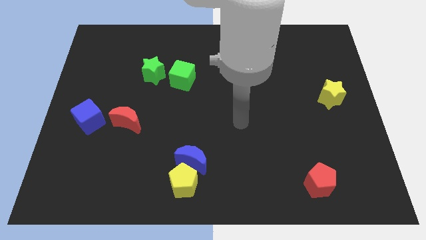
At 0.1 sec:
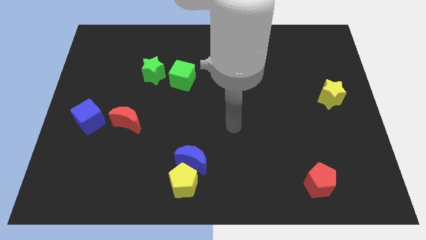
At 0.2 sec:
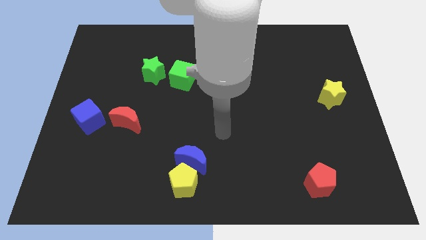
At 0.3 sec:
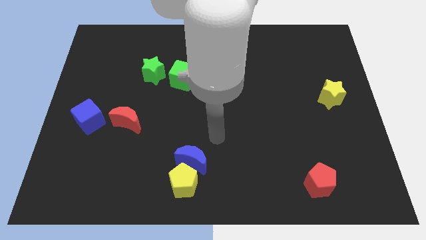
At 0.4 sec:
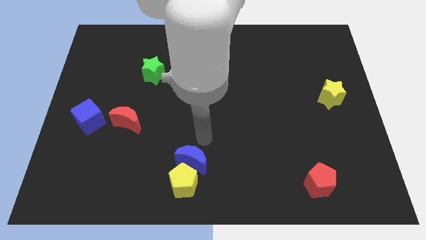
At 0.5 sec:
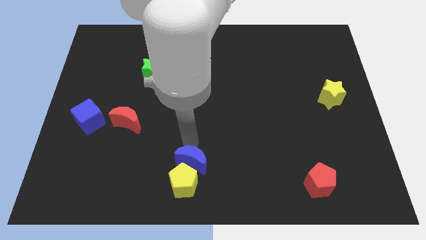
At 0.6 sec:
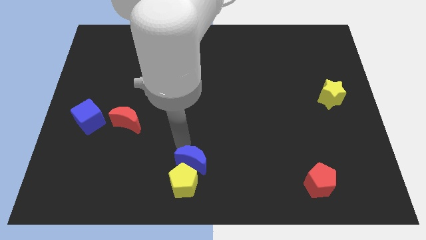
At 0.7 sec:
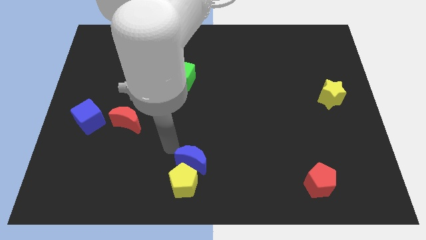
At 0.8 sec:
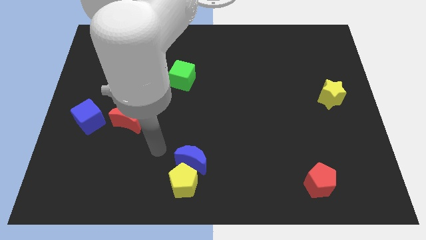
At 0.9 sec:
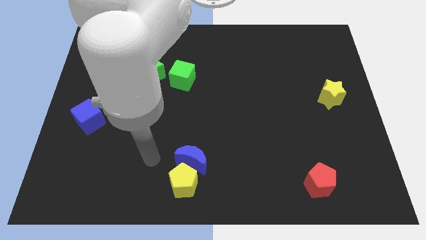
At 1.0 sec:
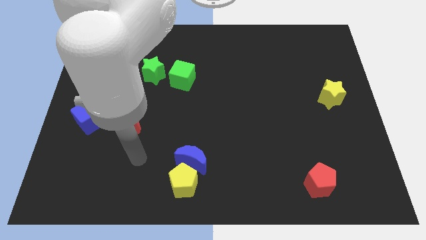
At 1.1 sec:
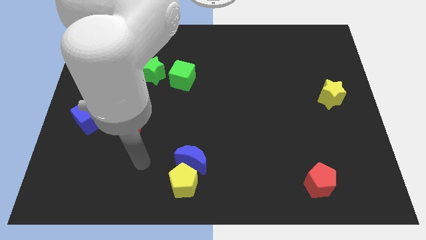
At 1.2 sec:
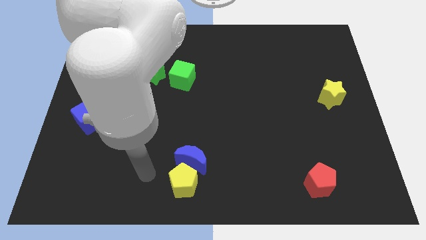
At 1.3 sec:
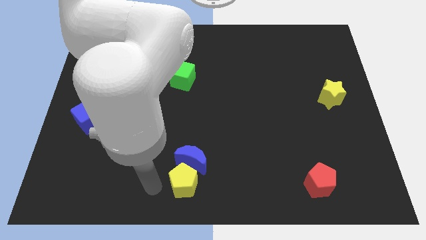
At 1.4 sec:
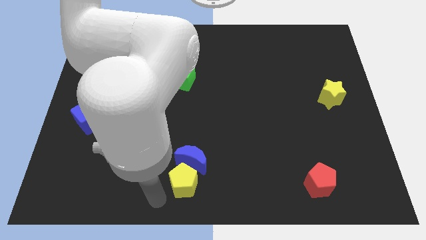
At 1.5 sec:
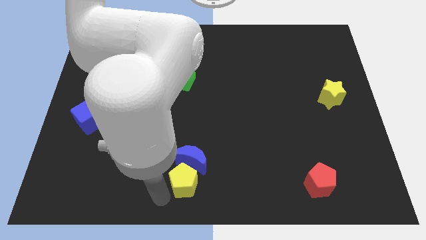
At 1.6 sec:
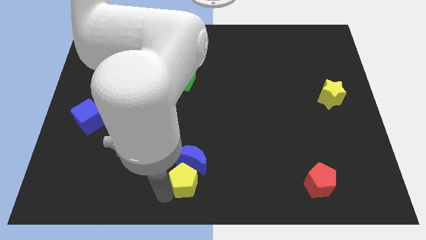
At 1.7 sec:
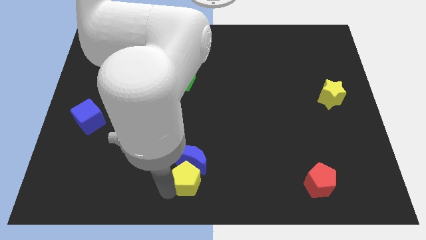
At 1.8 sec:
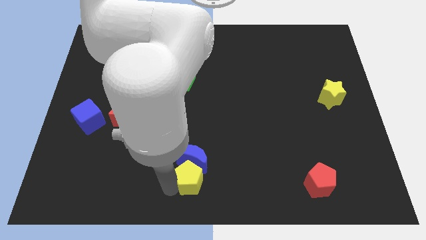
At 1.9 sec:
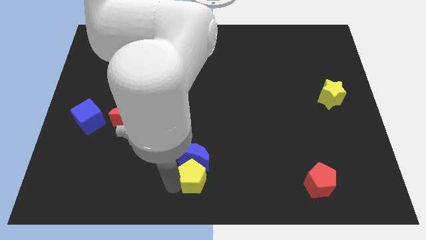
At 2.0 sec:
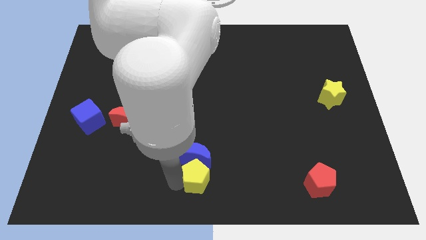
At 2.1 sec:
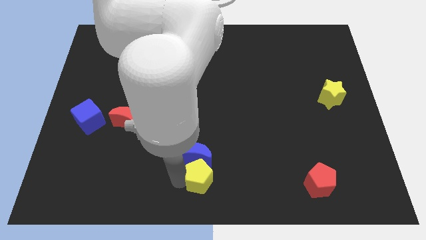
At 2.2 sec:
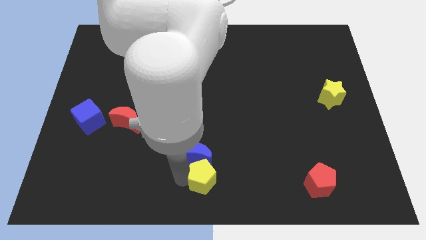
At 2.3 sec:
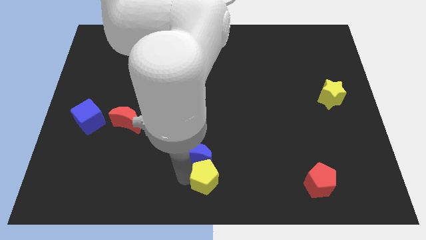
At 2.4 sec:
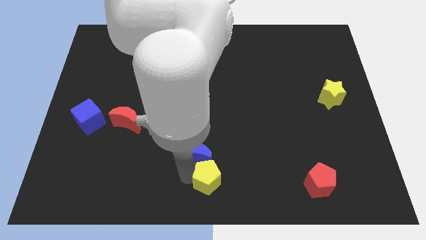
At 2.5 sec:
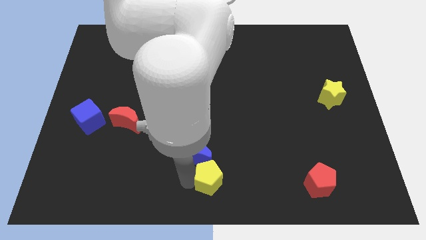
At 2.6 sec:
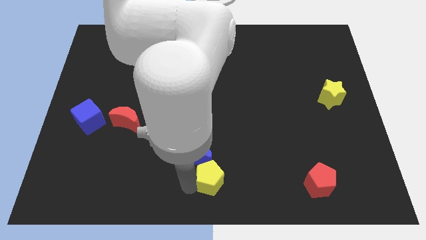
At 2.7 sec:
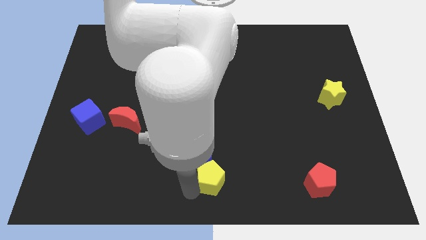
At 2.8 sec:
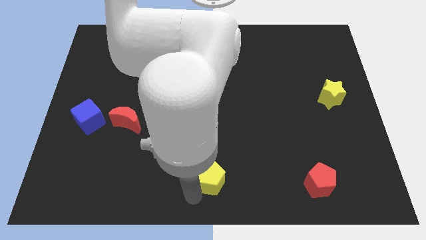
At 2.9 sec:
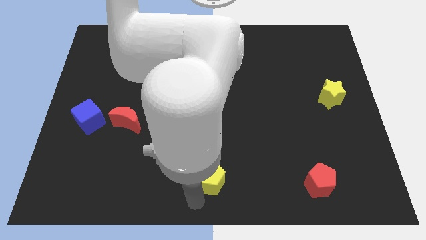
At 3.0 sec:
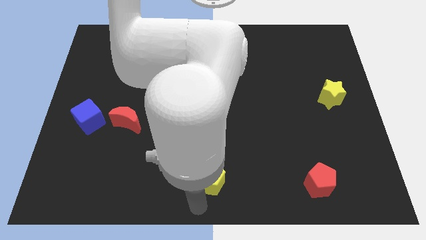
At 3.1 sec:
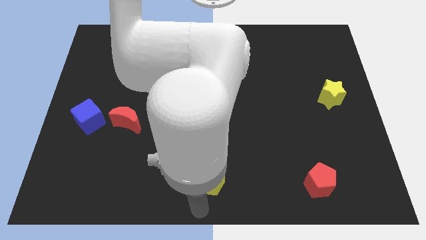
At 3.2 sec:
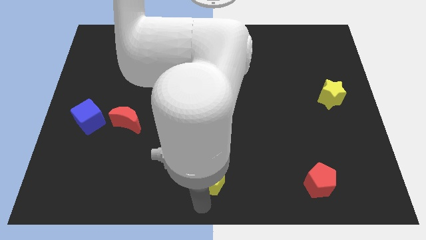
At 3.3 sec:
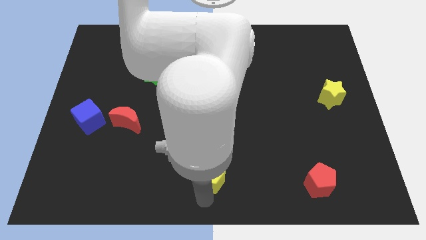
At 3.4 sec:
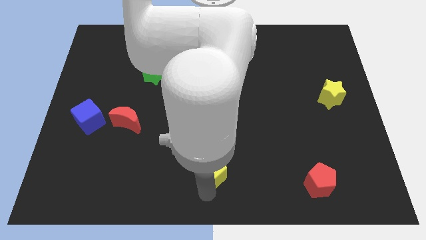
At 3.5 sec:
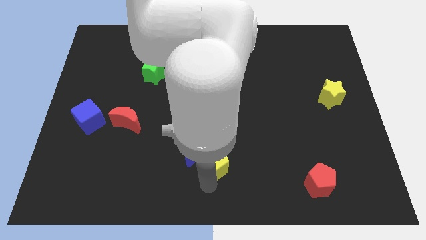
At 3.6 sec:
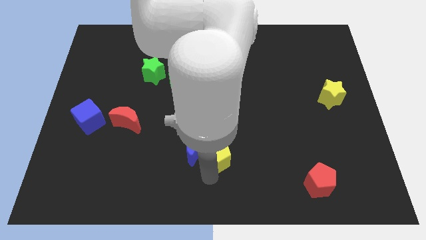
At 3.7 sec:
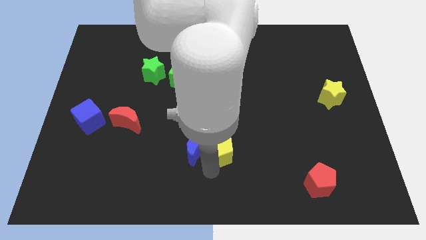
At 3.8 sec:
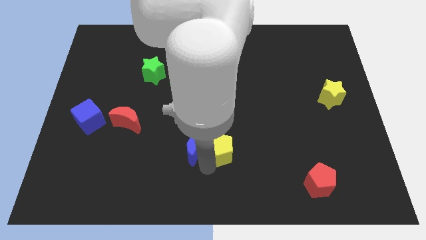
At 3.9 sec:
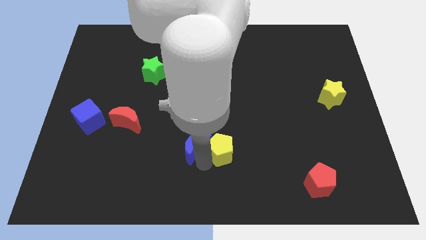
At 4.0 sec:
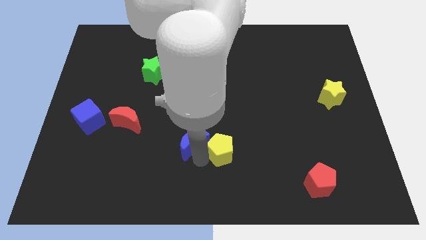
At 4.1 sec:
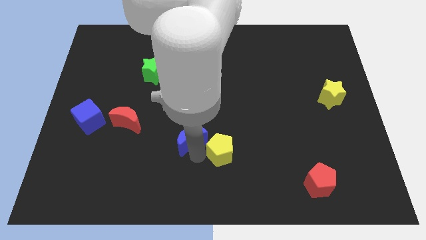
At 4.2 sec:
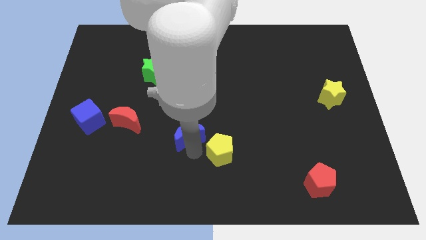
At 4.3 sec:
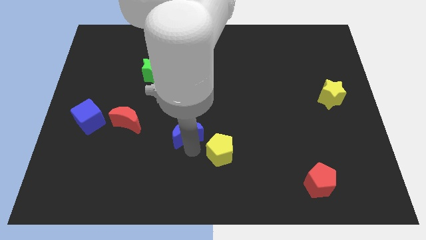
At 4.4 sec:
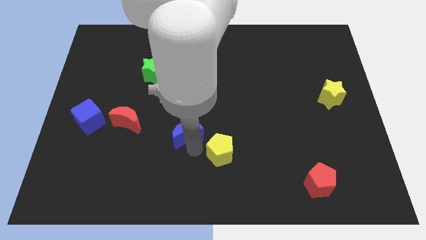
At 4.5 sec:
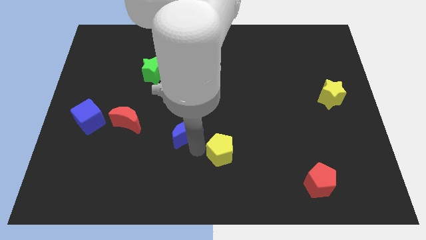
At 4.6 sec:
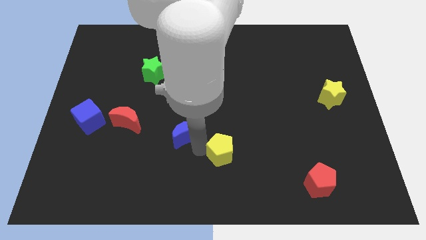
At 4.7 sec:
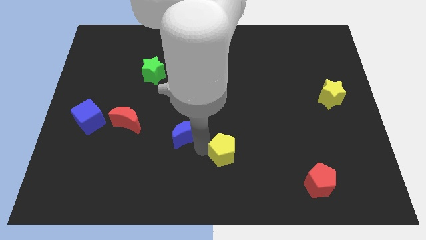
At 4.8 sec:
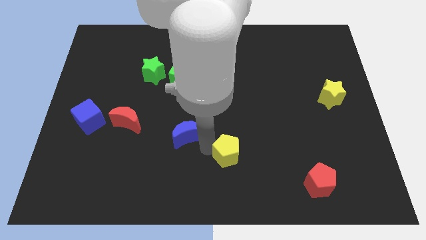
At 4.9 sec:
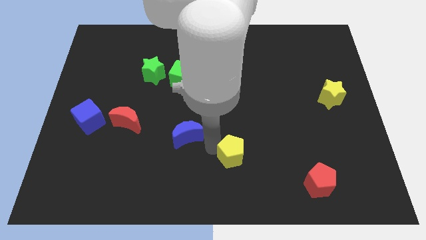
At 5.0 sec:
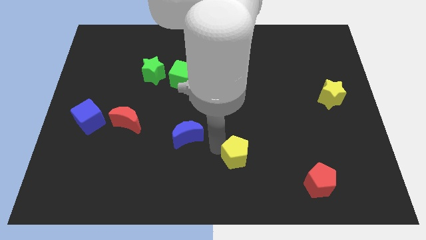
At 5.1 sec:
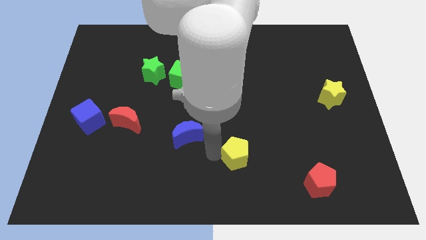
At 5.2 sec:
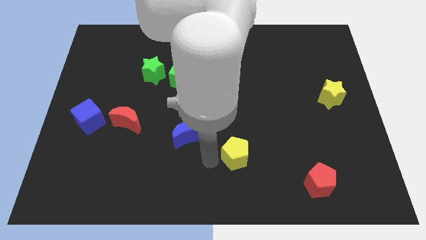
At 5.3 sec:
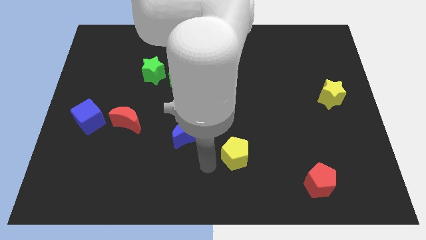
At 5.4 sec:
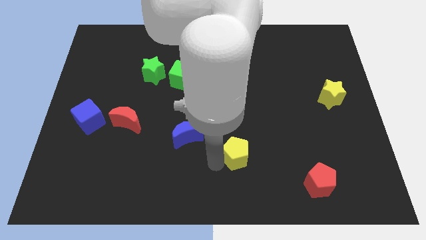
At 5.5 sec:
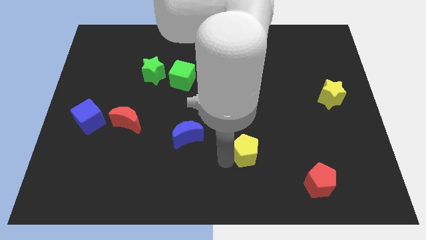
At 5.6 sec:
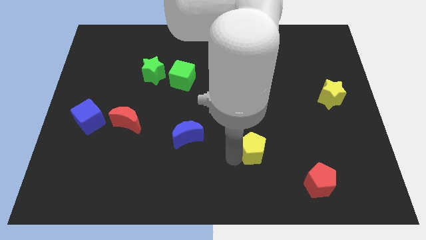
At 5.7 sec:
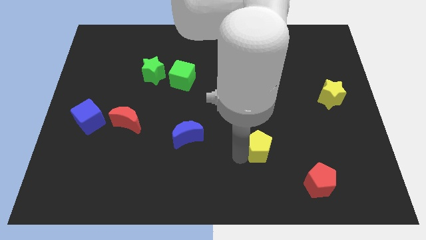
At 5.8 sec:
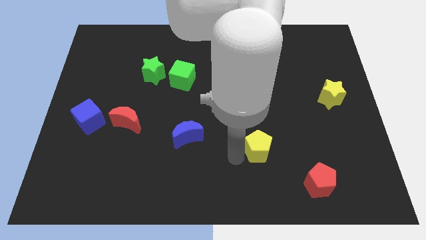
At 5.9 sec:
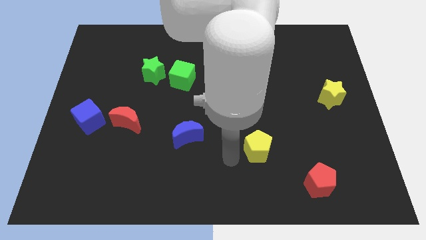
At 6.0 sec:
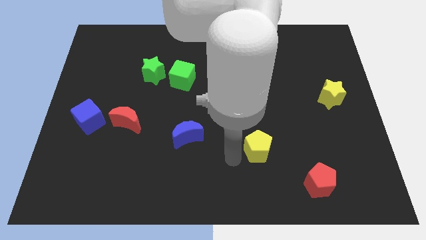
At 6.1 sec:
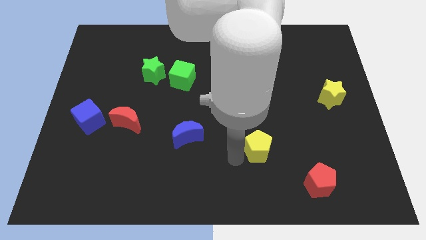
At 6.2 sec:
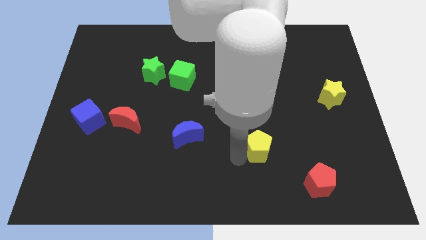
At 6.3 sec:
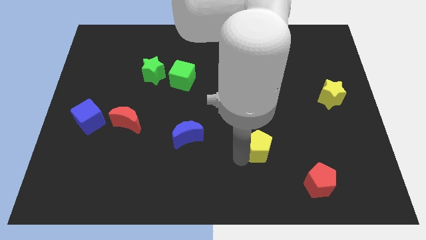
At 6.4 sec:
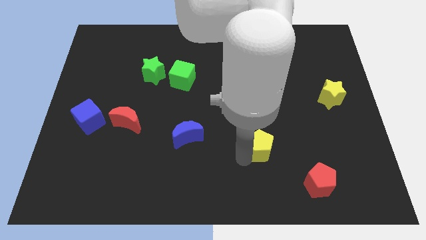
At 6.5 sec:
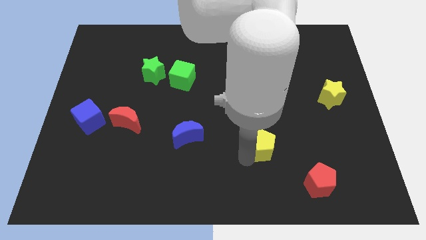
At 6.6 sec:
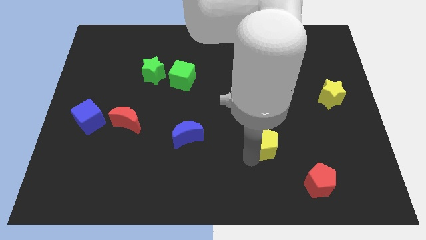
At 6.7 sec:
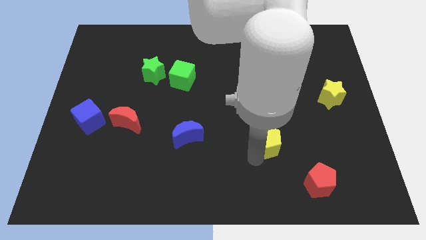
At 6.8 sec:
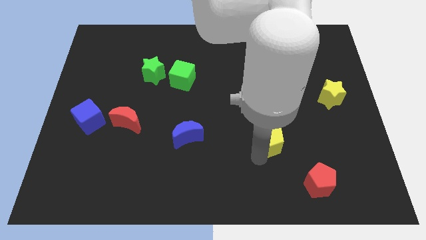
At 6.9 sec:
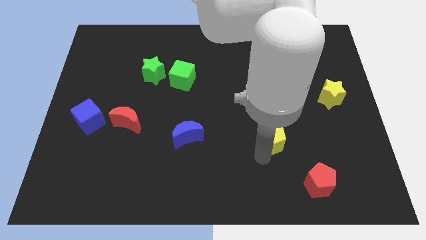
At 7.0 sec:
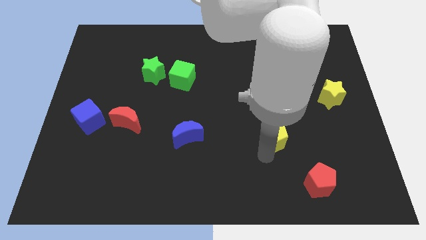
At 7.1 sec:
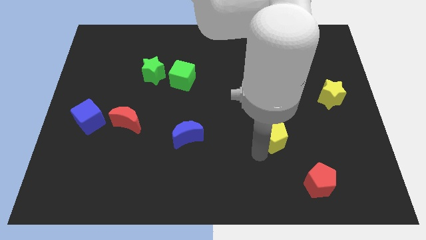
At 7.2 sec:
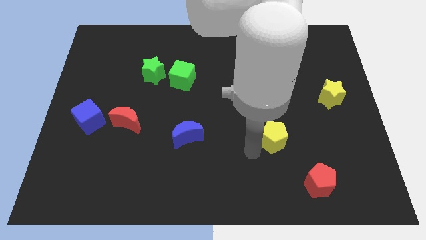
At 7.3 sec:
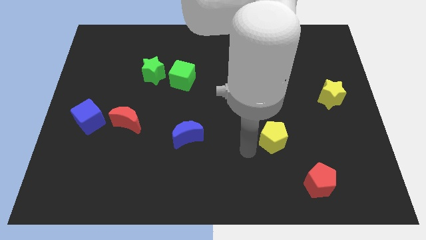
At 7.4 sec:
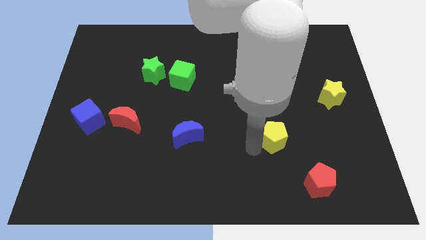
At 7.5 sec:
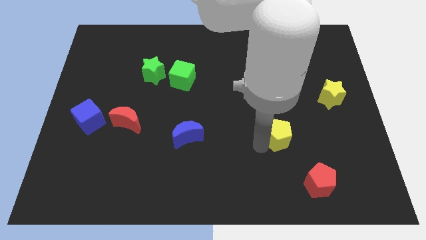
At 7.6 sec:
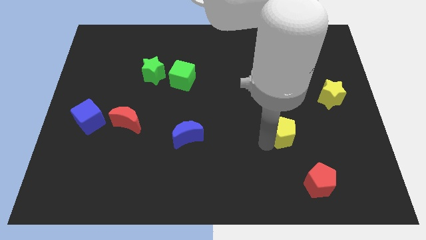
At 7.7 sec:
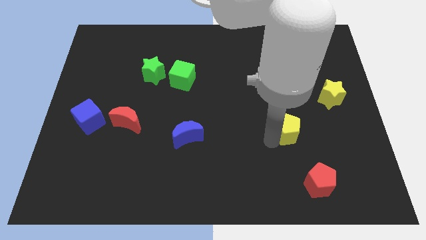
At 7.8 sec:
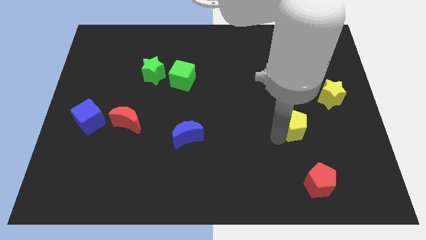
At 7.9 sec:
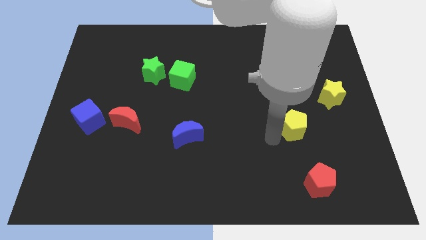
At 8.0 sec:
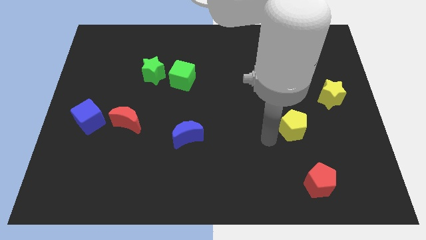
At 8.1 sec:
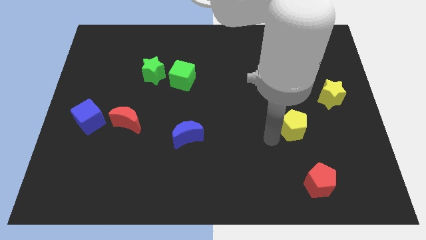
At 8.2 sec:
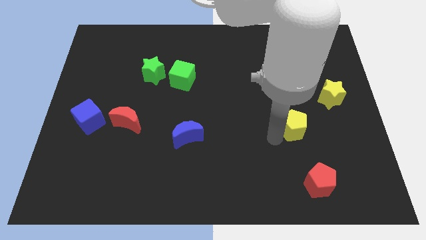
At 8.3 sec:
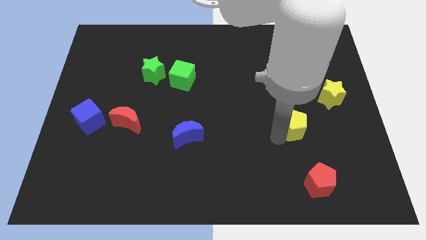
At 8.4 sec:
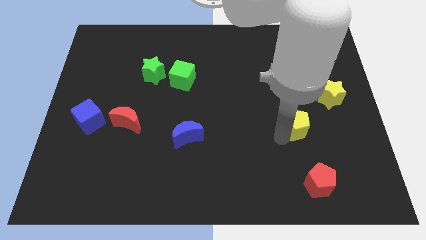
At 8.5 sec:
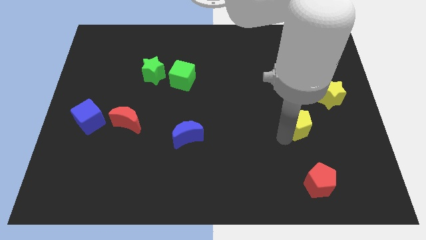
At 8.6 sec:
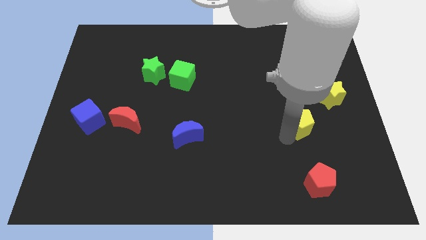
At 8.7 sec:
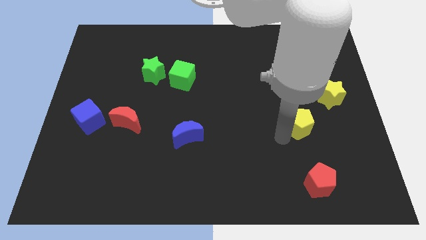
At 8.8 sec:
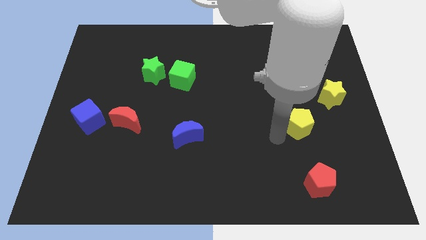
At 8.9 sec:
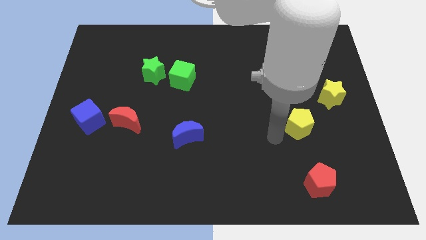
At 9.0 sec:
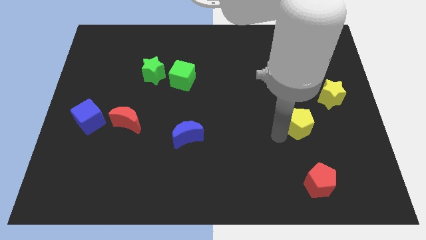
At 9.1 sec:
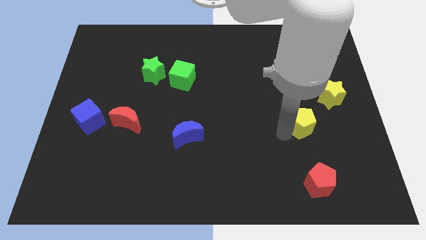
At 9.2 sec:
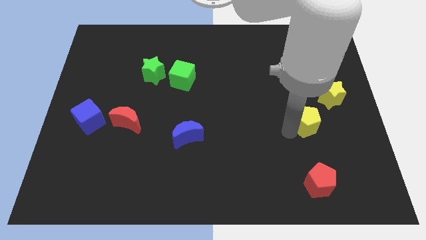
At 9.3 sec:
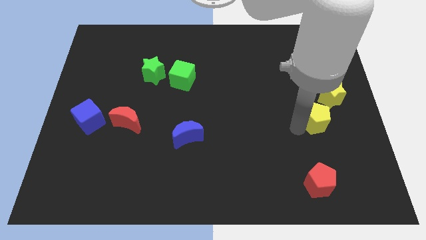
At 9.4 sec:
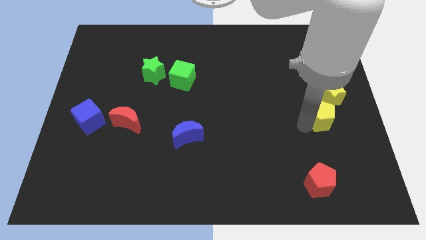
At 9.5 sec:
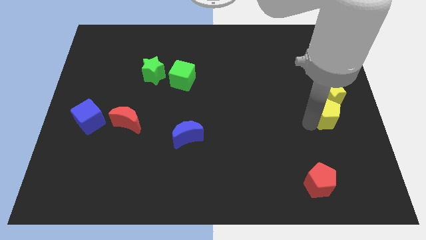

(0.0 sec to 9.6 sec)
push the yellow pentagon to the right side
